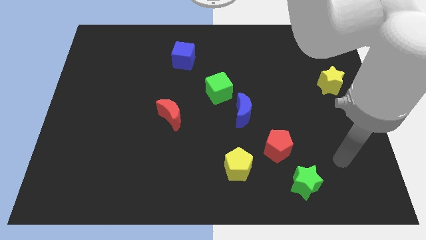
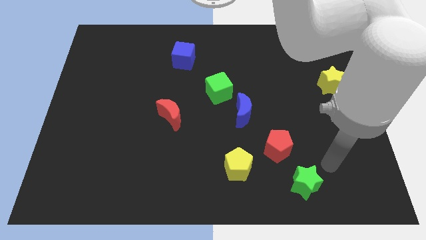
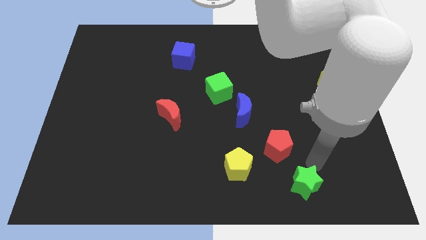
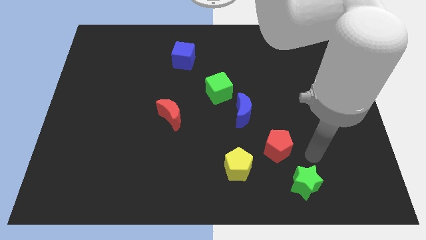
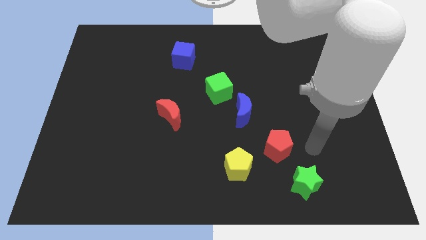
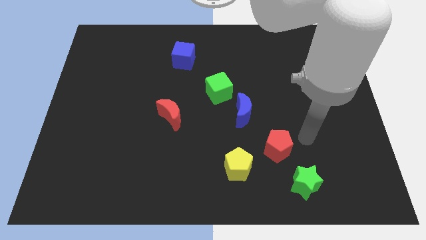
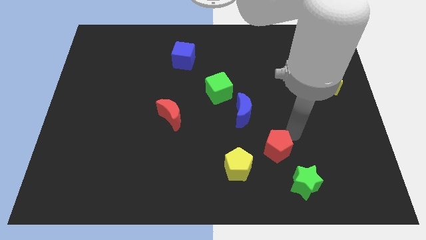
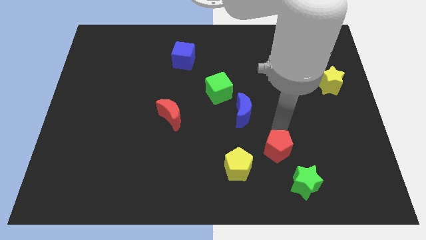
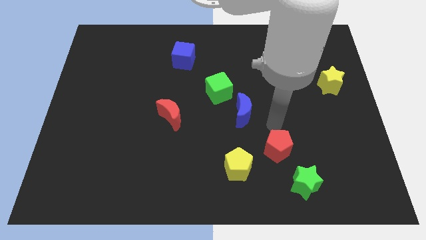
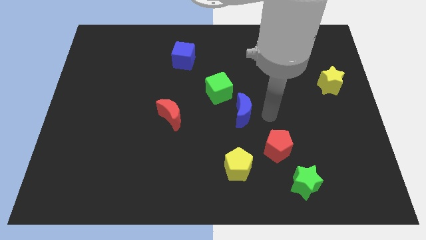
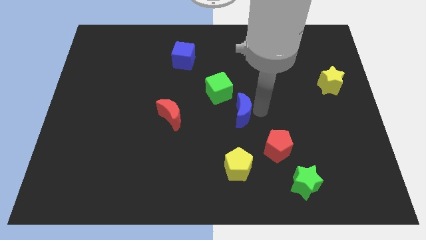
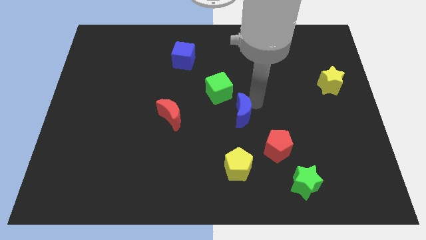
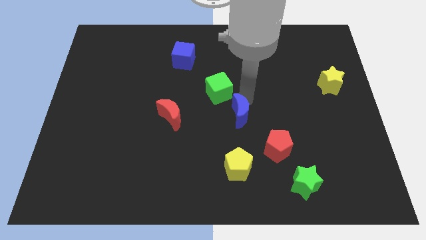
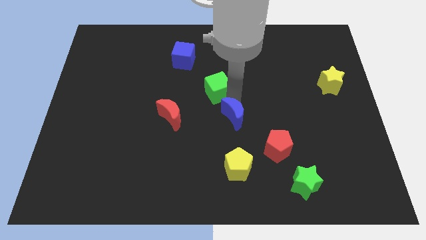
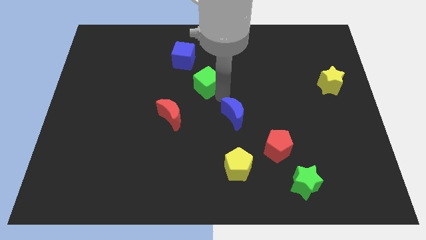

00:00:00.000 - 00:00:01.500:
pull the blue moon apart from the green cube

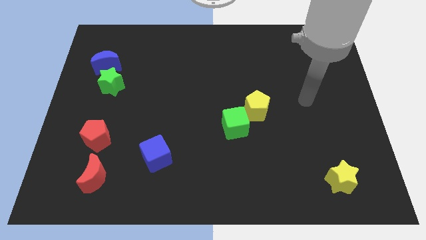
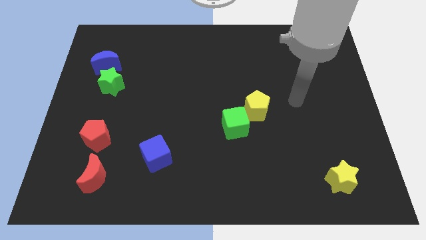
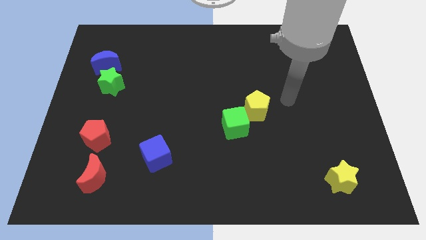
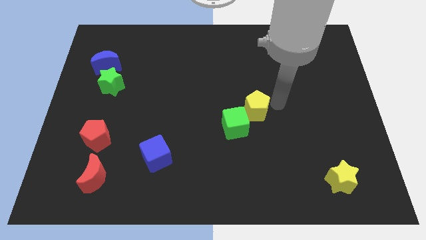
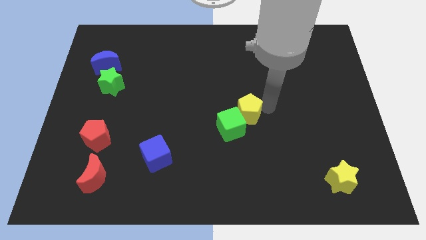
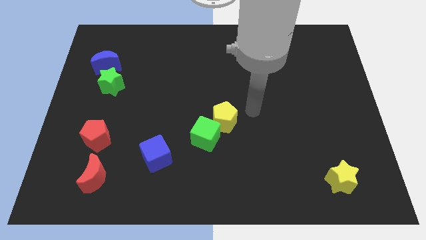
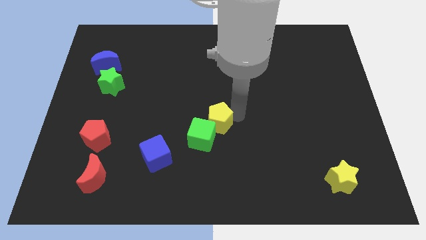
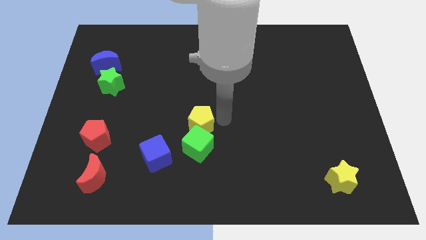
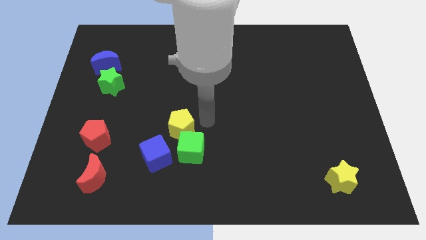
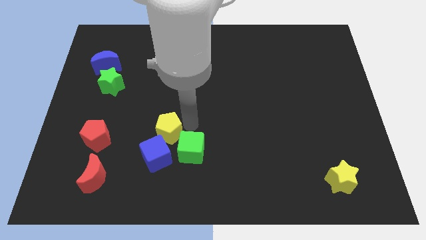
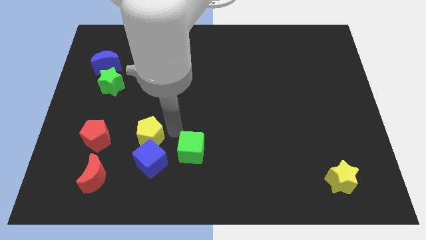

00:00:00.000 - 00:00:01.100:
separate the green cube from the yellow pentagon

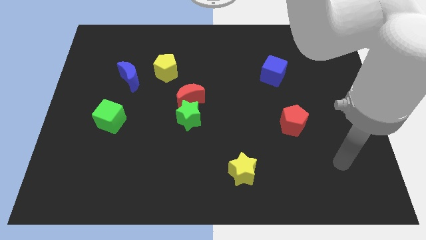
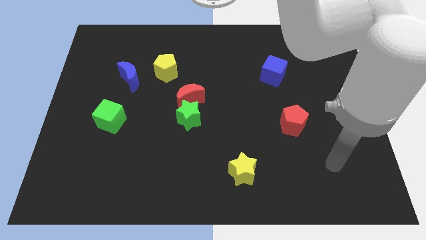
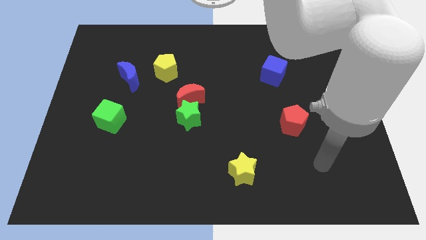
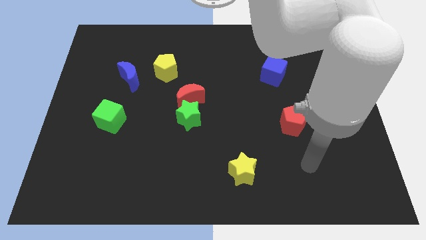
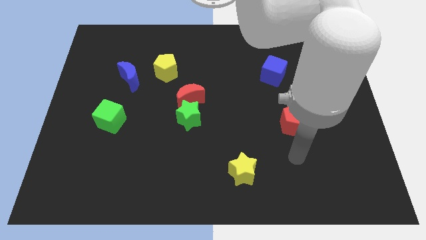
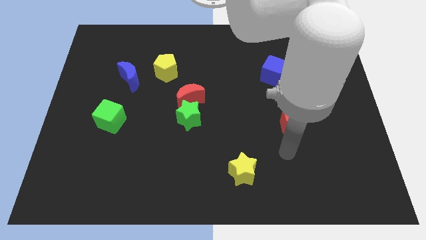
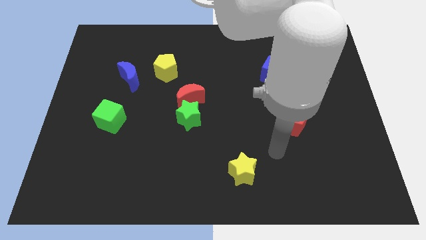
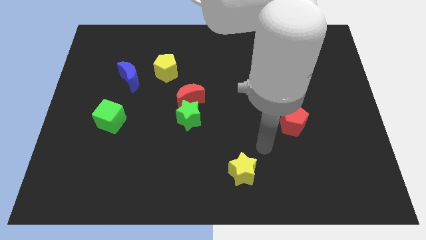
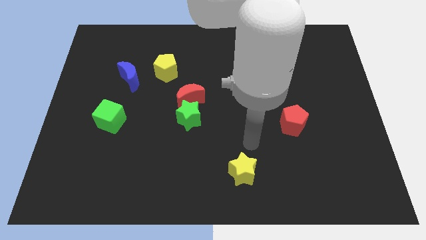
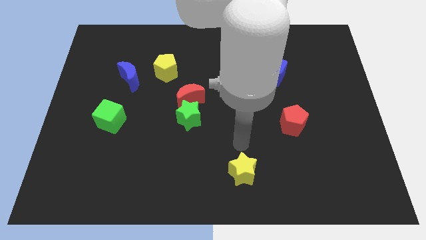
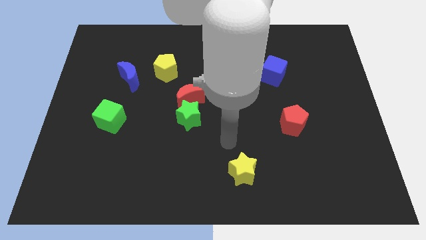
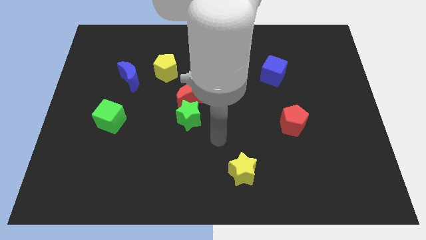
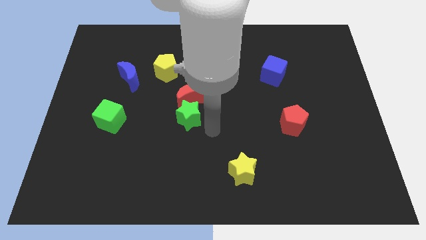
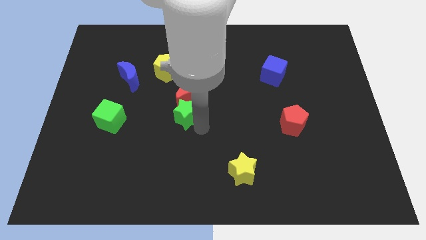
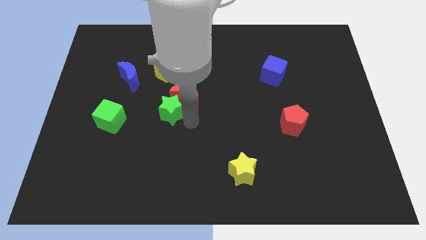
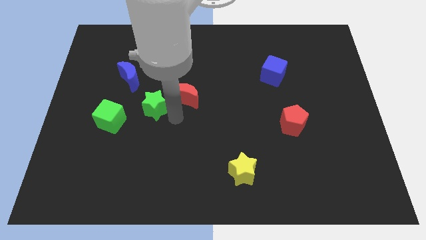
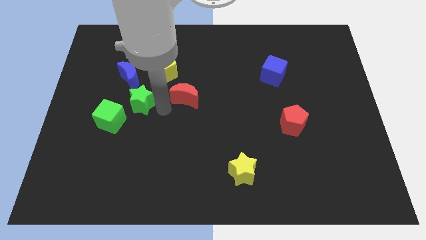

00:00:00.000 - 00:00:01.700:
separate the red moon from the green star

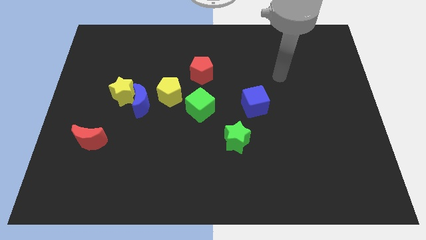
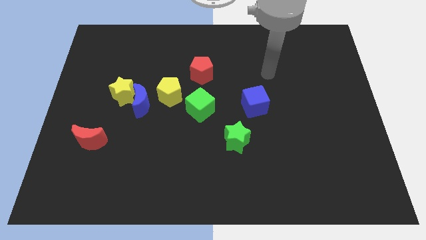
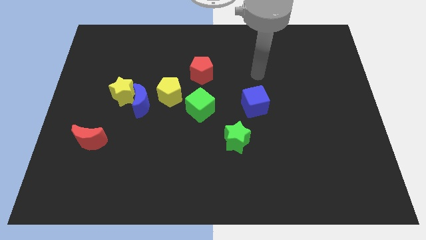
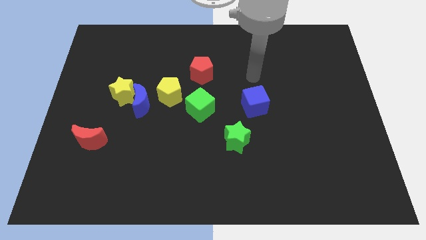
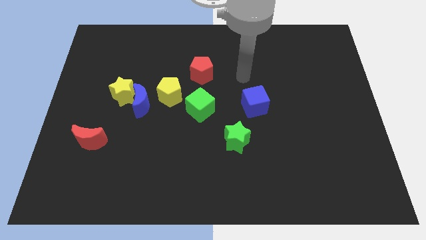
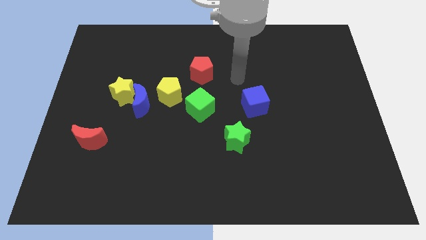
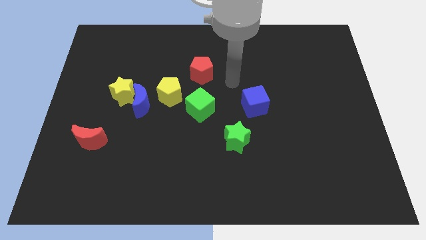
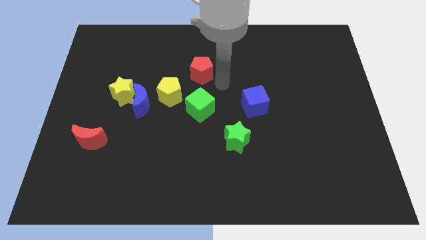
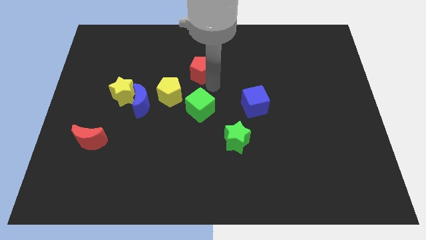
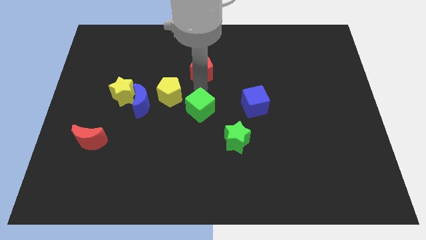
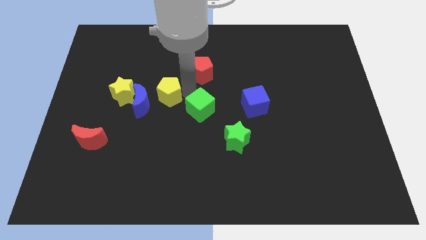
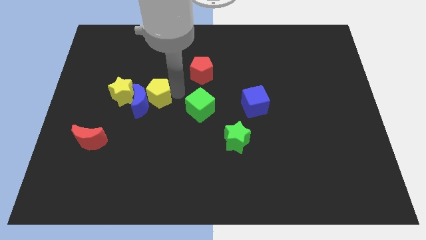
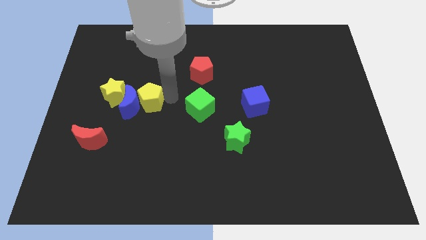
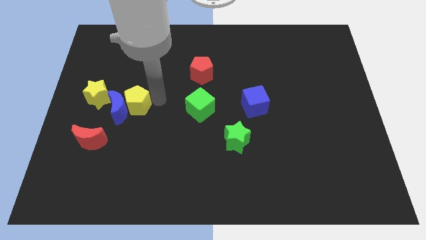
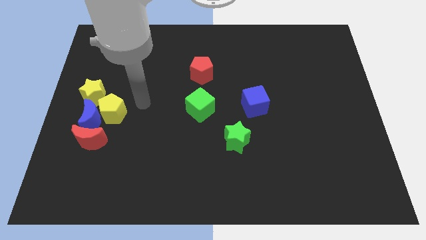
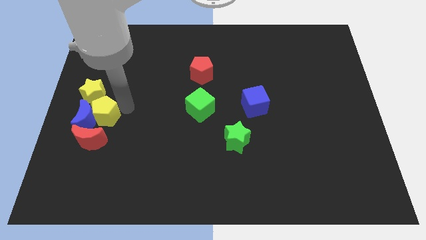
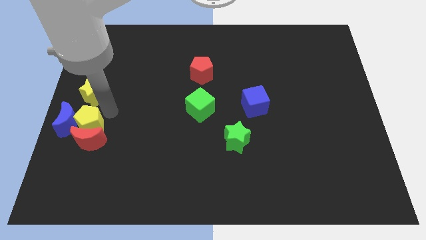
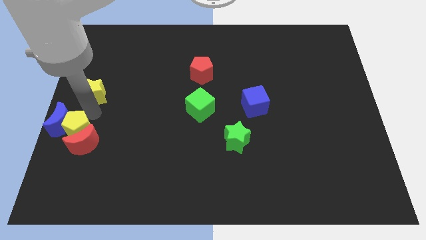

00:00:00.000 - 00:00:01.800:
move the yellow star away from the blue moon

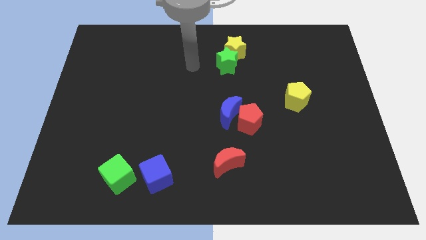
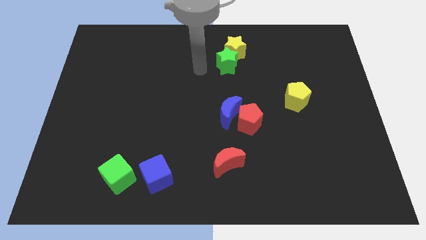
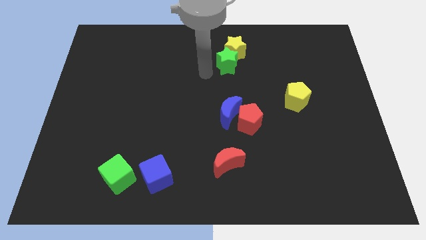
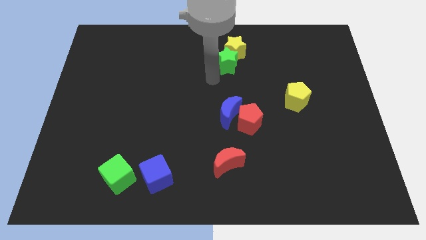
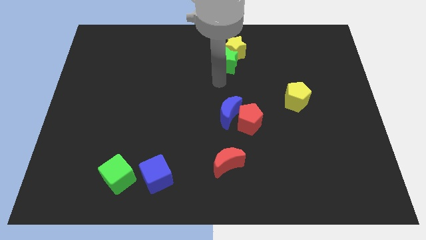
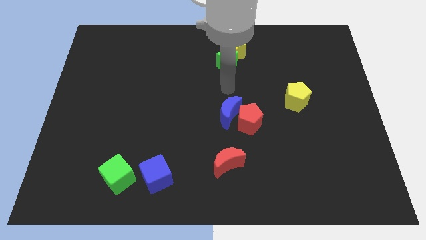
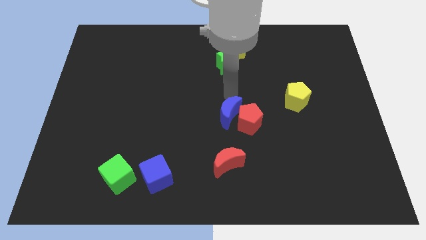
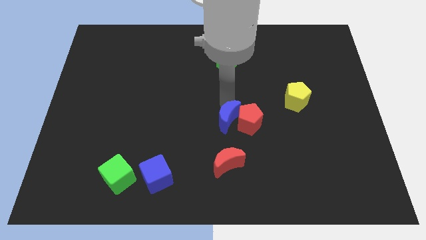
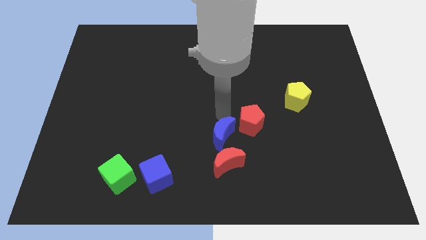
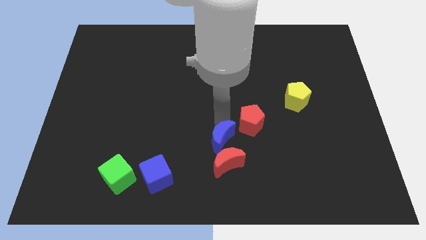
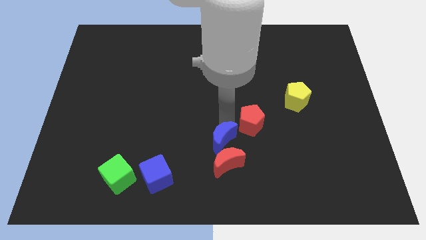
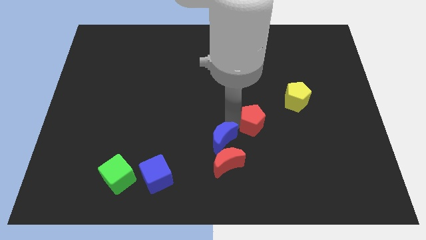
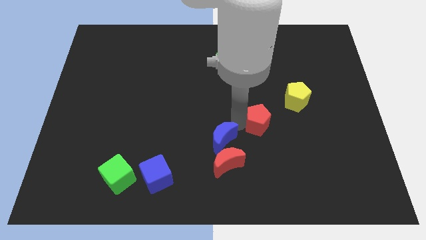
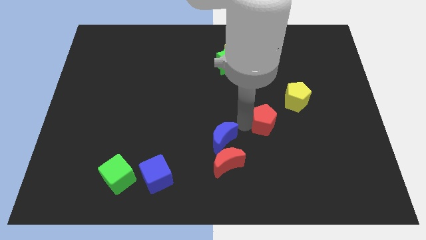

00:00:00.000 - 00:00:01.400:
separate the red pentagon from the blue moon

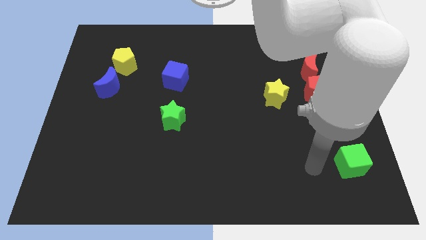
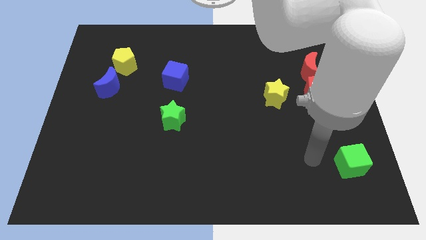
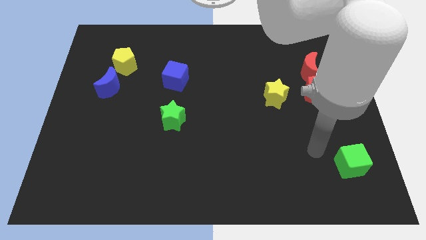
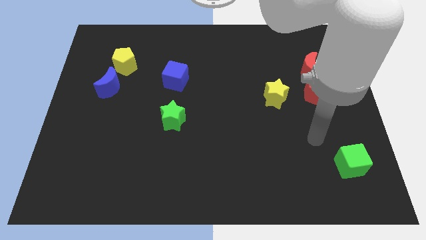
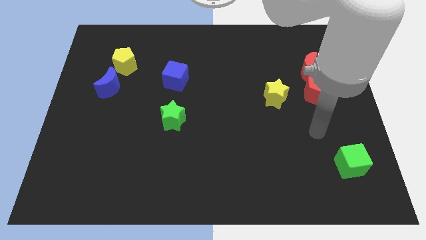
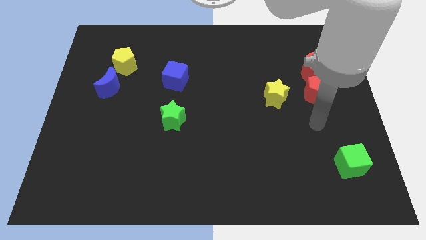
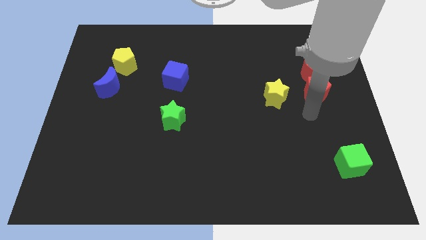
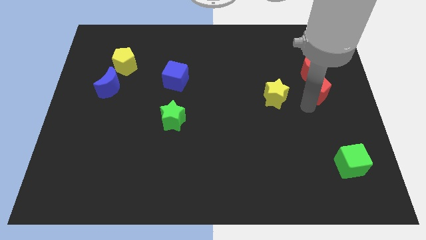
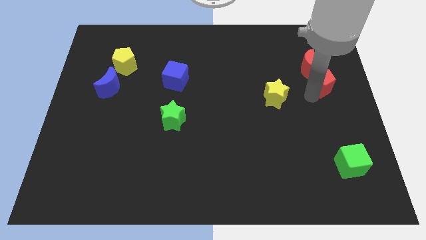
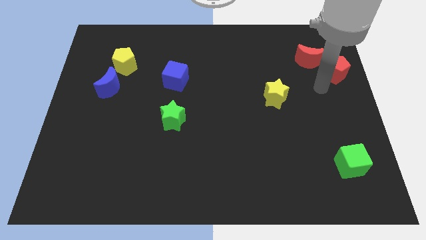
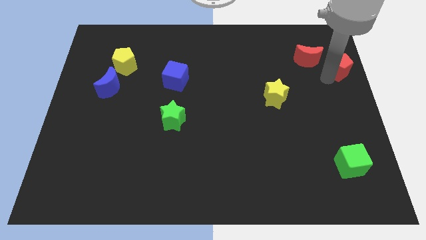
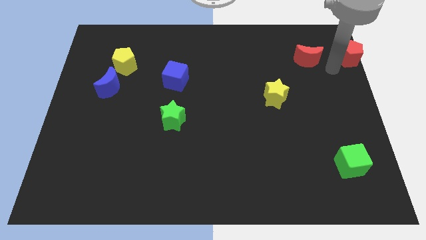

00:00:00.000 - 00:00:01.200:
move the red moon away from the red pentagon

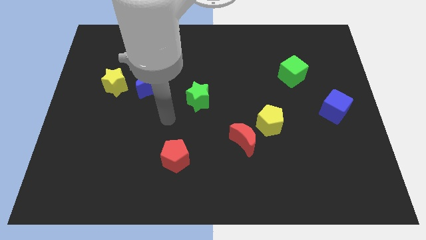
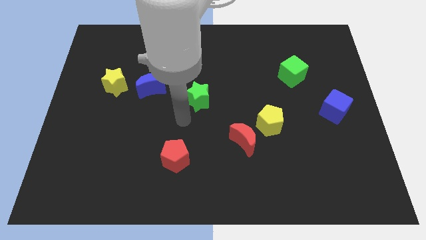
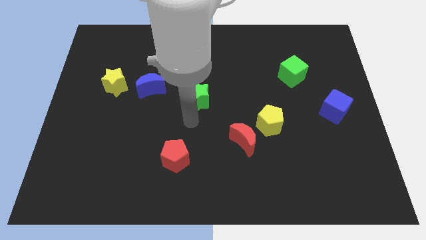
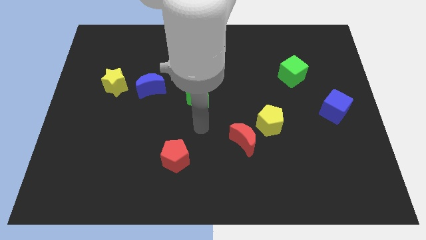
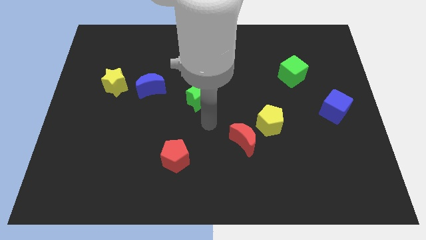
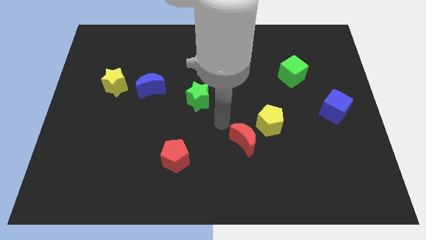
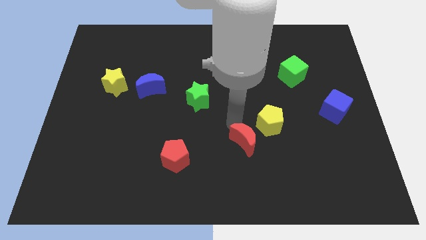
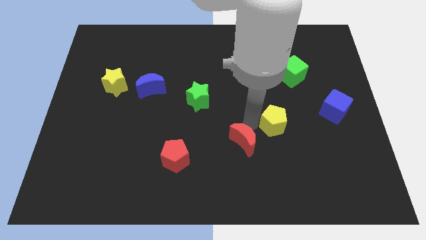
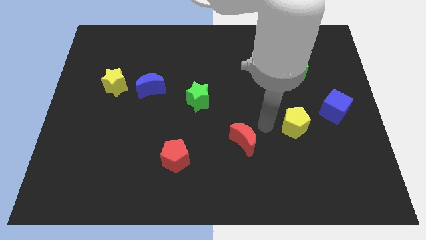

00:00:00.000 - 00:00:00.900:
separate the red moon from the yellow pentagon
